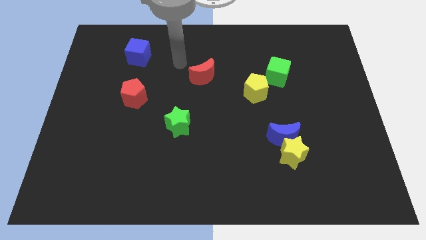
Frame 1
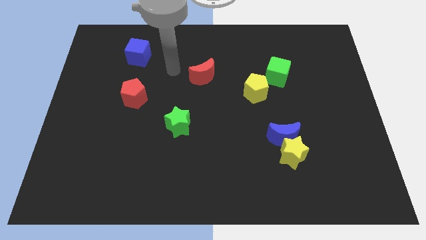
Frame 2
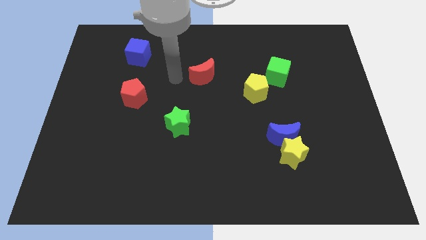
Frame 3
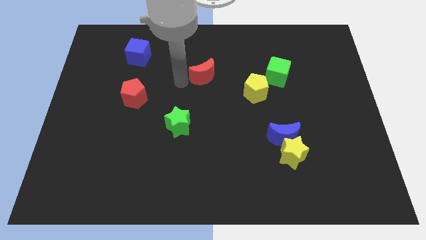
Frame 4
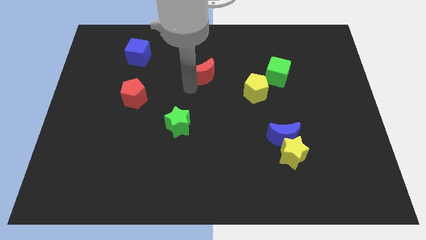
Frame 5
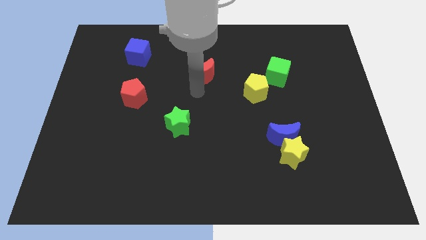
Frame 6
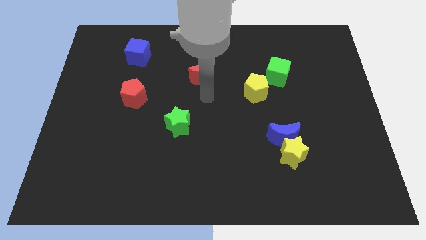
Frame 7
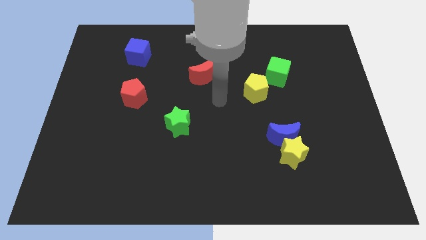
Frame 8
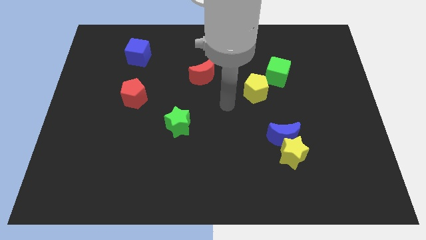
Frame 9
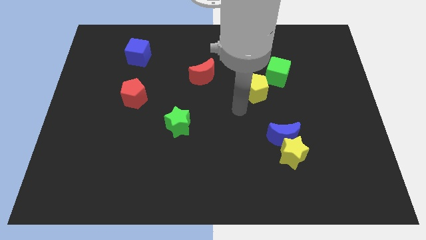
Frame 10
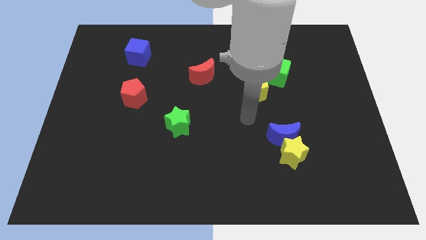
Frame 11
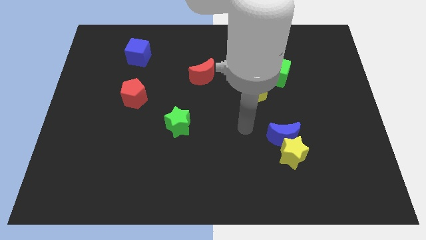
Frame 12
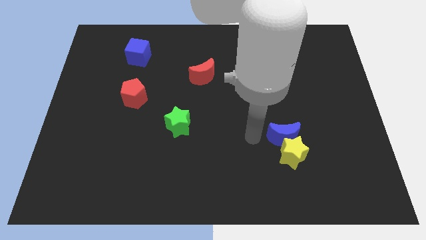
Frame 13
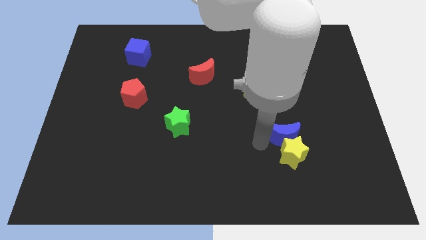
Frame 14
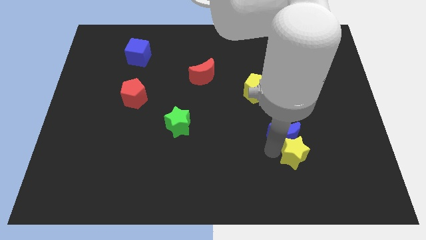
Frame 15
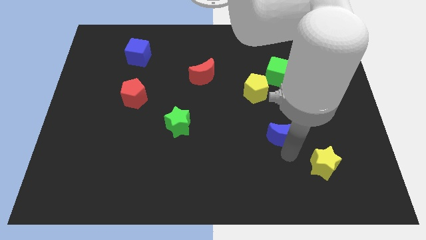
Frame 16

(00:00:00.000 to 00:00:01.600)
move the blue moon away from the yellow star

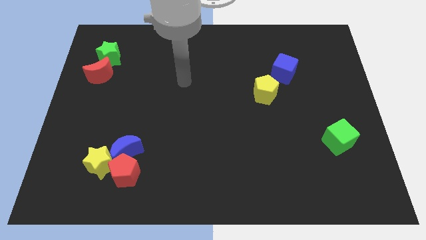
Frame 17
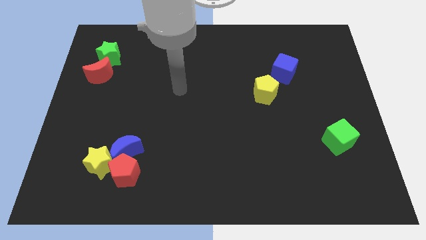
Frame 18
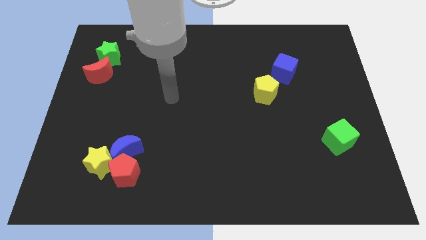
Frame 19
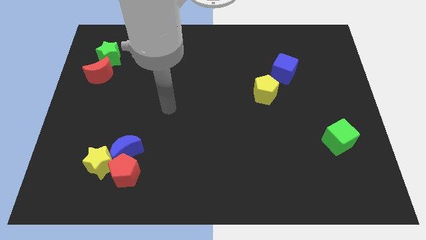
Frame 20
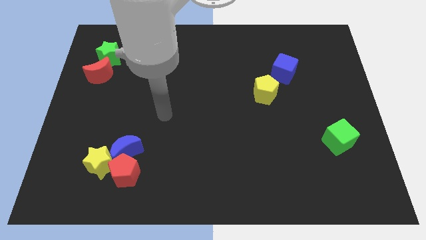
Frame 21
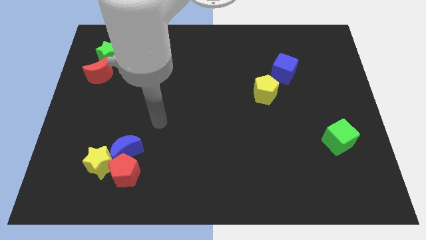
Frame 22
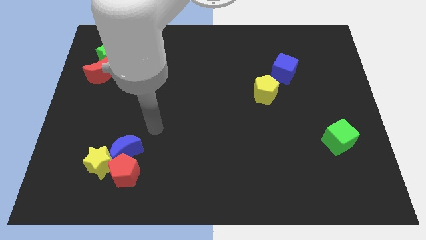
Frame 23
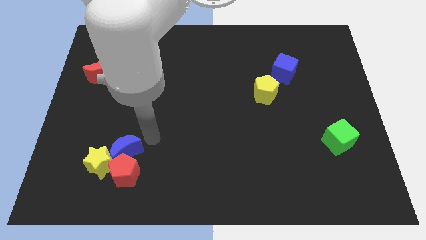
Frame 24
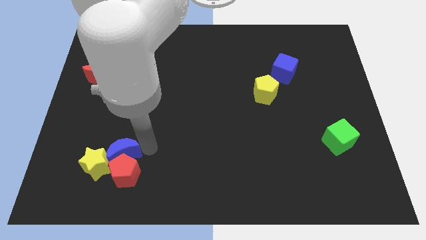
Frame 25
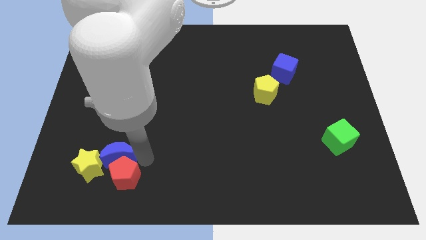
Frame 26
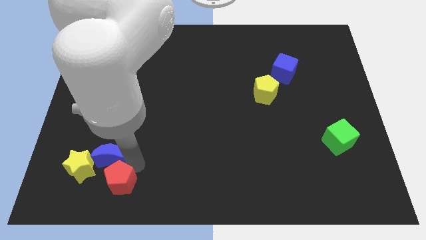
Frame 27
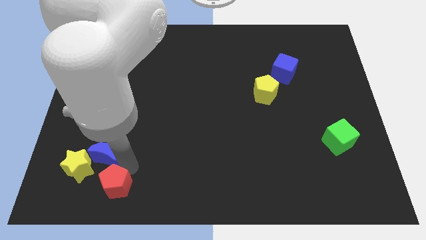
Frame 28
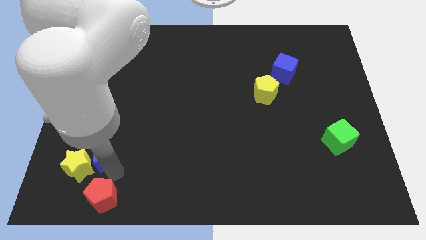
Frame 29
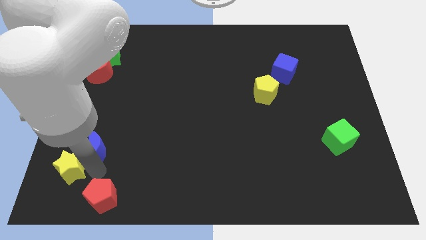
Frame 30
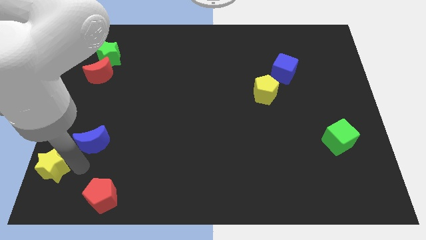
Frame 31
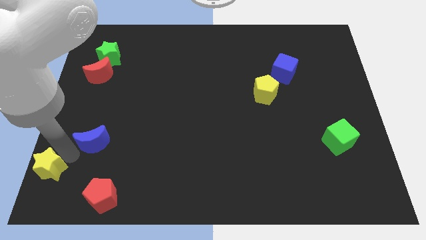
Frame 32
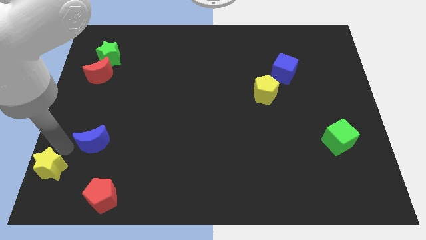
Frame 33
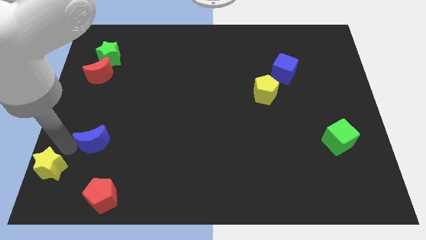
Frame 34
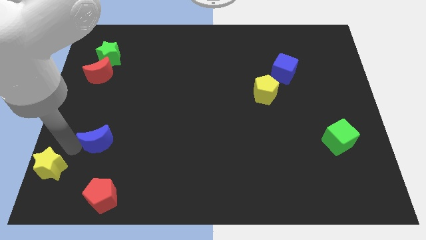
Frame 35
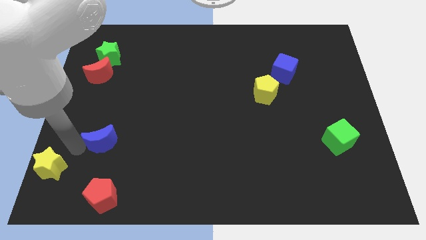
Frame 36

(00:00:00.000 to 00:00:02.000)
separate the blue moon from the red pentagon and yellow star

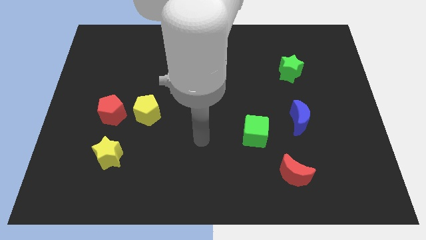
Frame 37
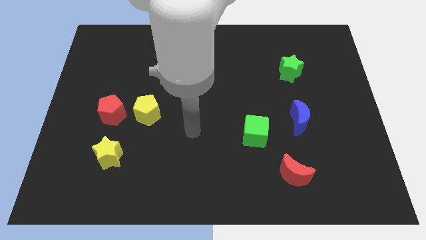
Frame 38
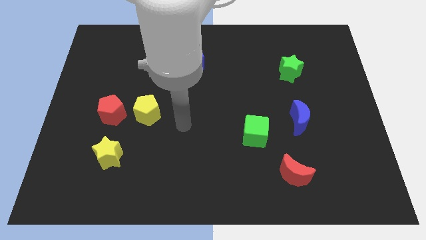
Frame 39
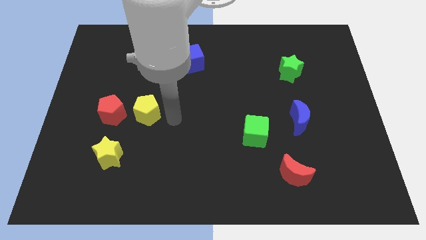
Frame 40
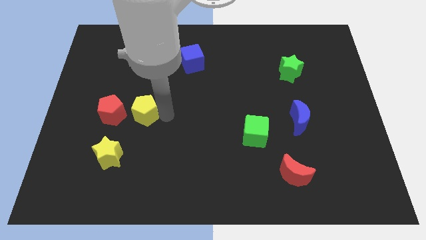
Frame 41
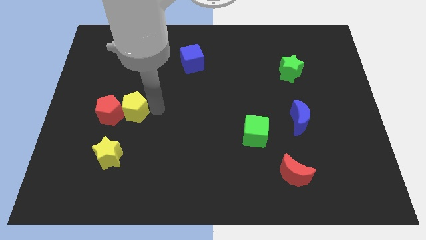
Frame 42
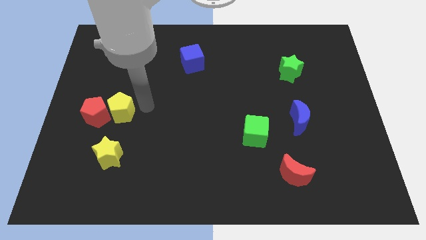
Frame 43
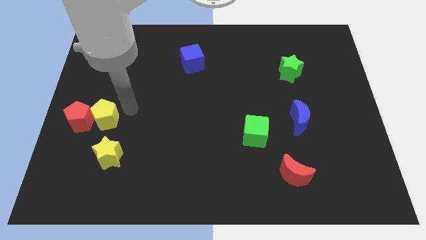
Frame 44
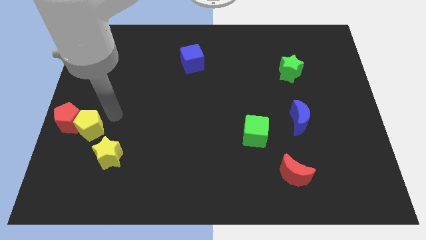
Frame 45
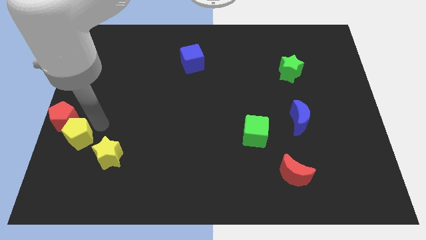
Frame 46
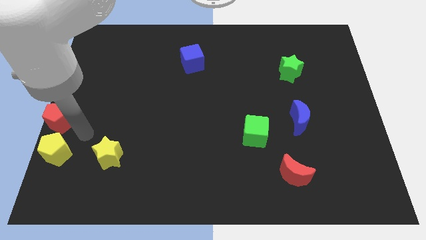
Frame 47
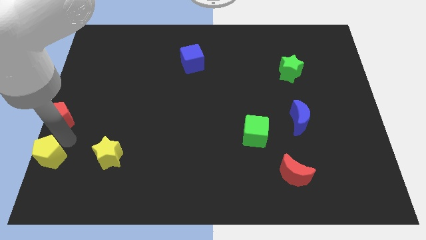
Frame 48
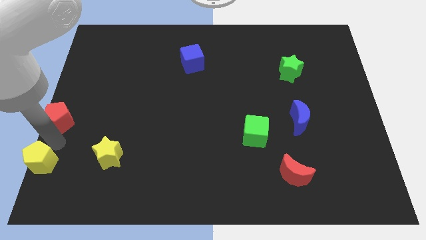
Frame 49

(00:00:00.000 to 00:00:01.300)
separate the red pentagon from the yellow pentagon

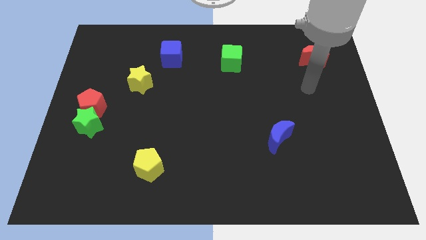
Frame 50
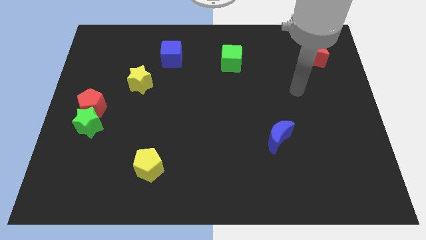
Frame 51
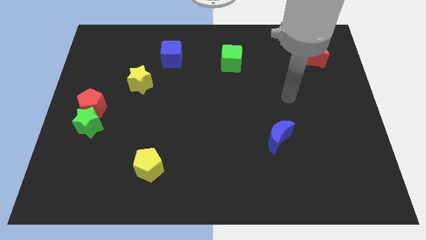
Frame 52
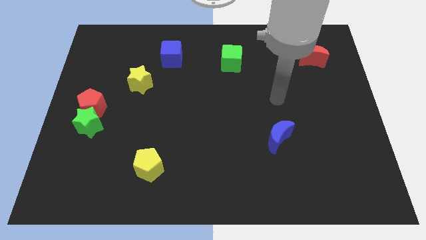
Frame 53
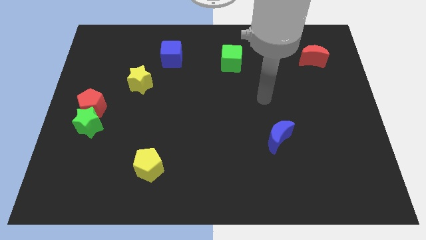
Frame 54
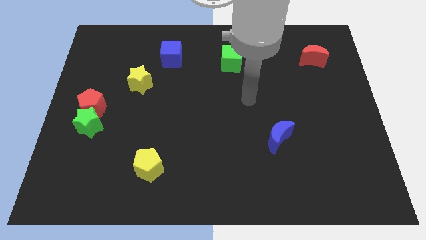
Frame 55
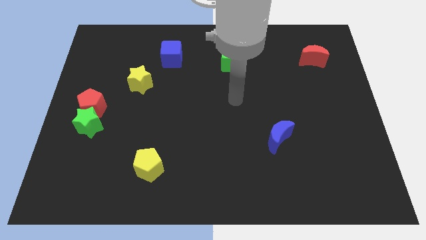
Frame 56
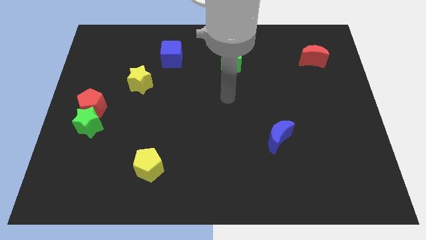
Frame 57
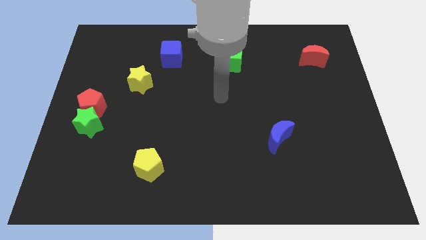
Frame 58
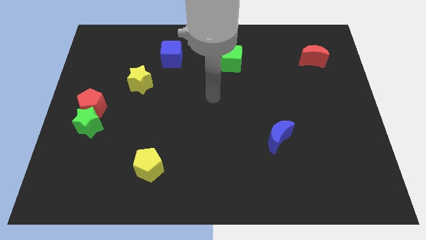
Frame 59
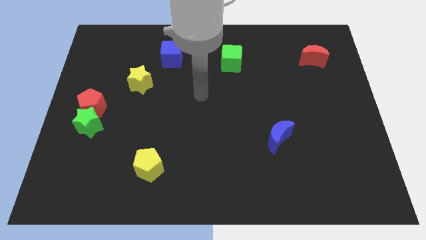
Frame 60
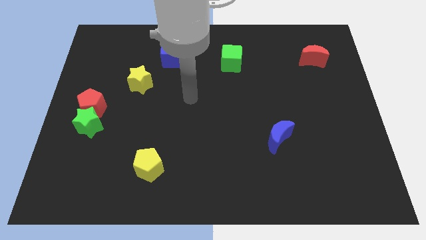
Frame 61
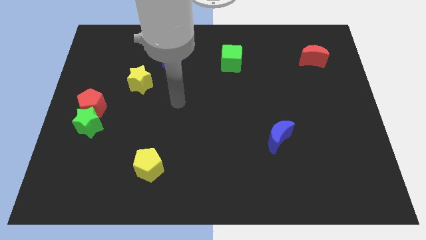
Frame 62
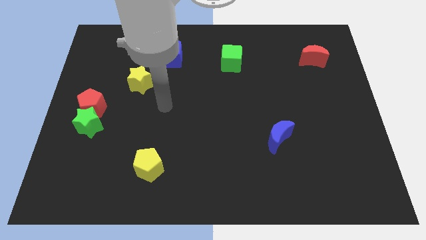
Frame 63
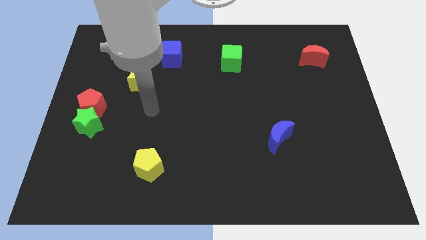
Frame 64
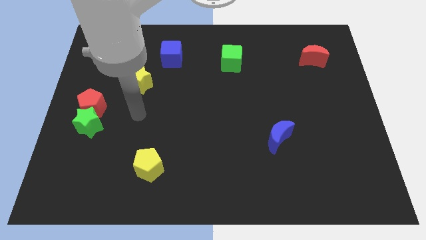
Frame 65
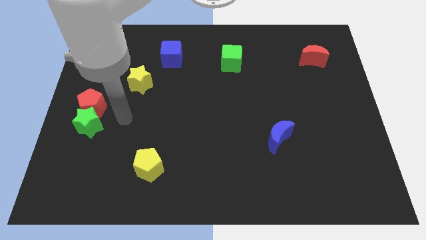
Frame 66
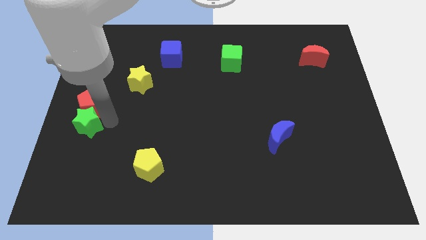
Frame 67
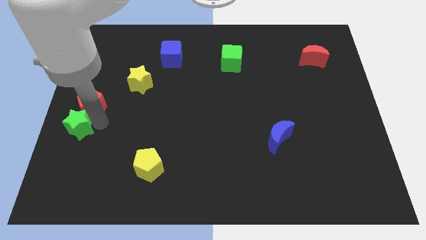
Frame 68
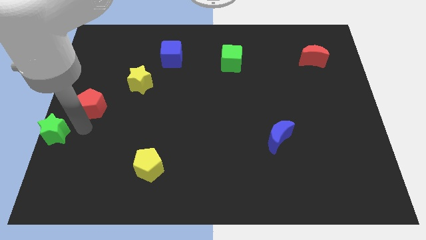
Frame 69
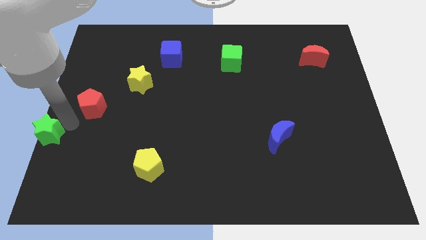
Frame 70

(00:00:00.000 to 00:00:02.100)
pull the red pentagon apart from the green star

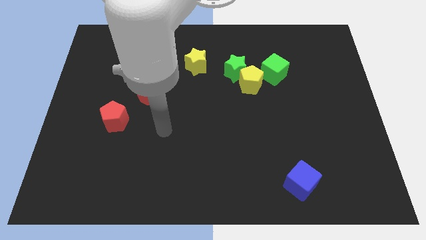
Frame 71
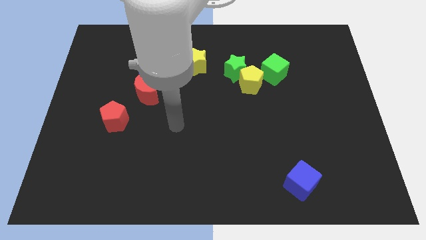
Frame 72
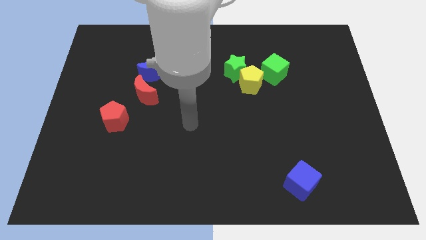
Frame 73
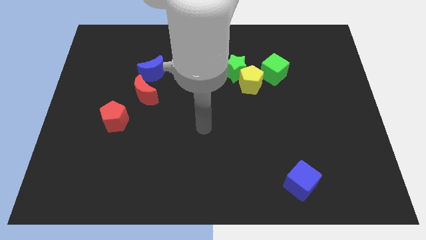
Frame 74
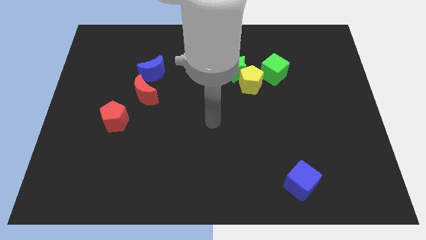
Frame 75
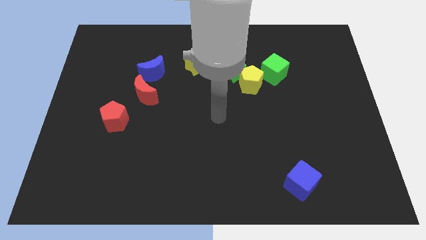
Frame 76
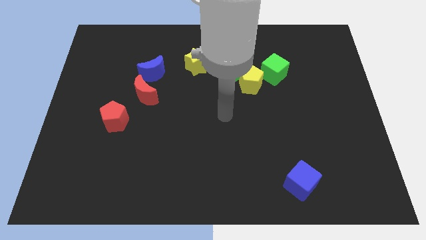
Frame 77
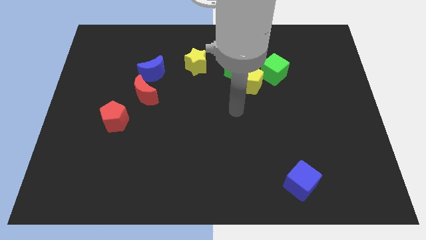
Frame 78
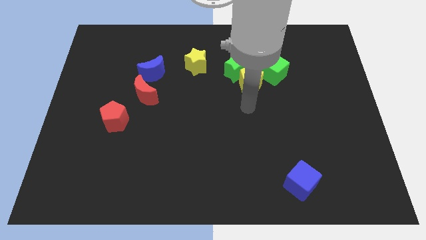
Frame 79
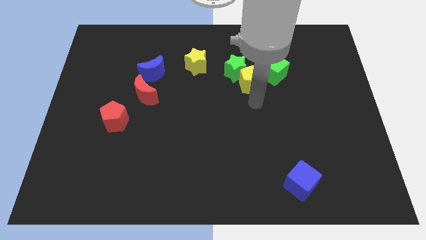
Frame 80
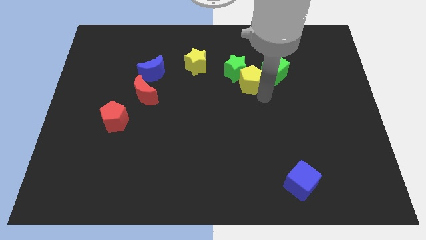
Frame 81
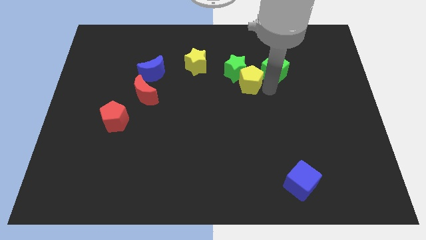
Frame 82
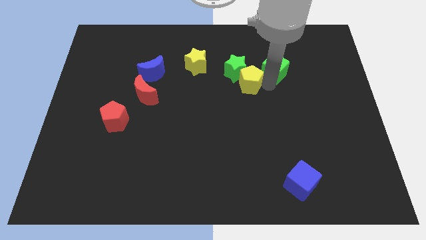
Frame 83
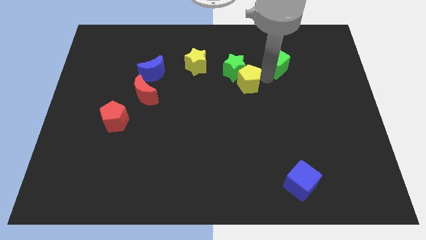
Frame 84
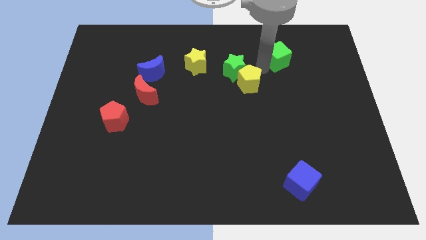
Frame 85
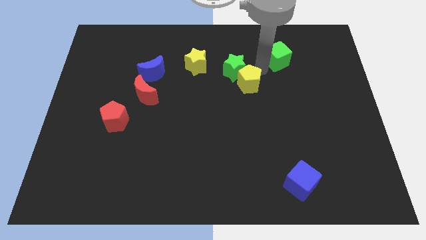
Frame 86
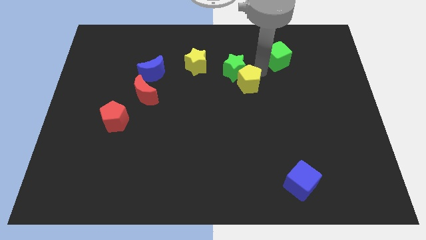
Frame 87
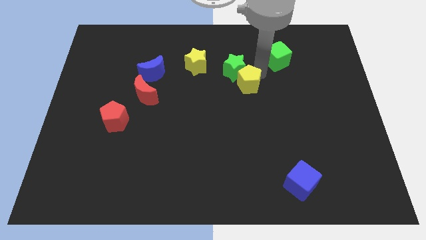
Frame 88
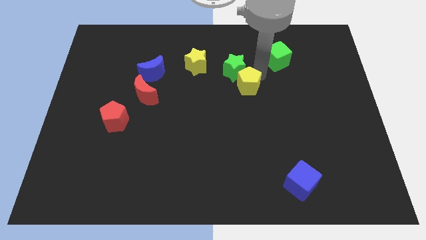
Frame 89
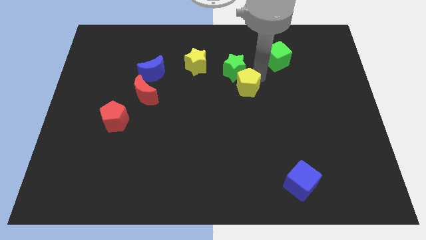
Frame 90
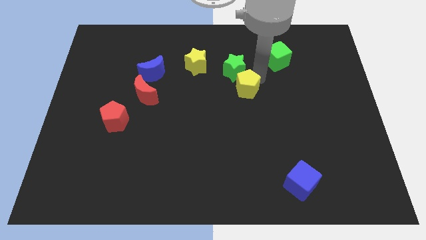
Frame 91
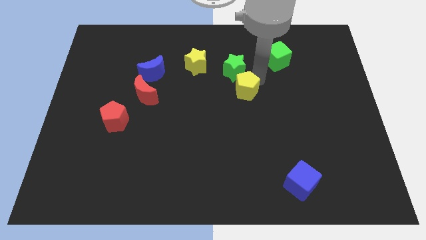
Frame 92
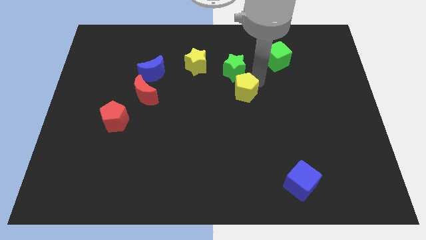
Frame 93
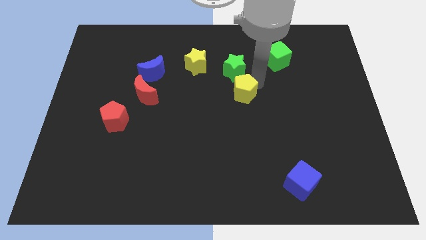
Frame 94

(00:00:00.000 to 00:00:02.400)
move the yellow pentagon away from the green star and green cube
